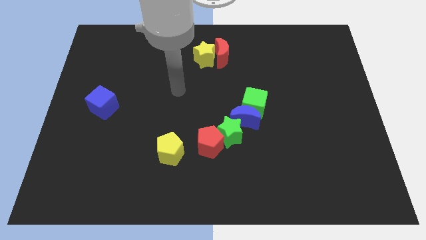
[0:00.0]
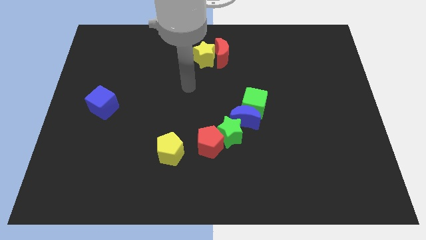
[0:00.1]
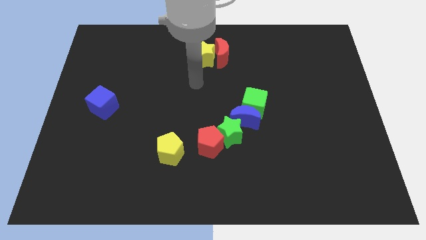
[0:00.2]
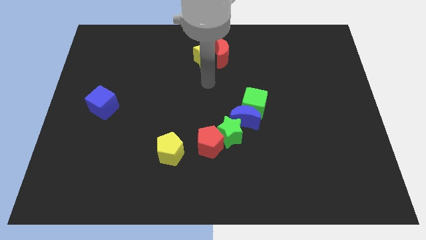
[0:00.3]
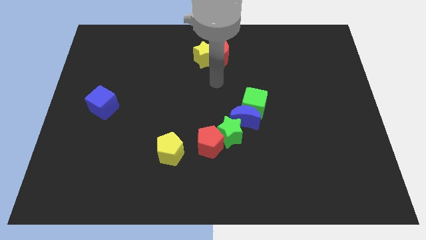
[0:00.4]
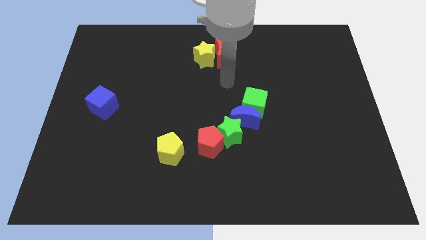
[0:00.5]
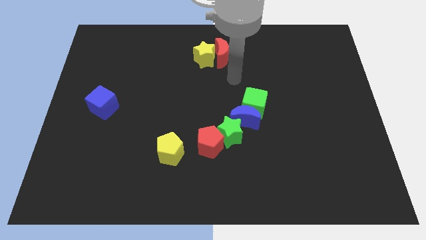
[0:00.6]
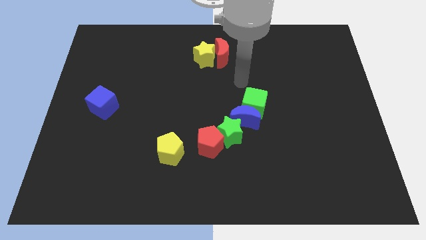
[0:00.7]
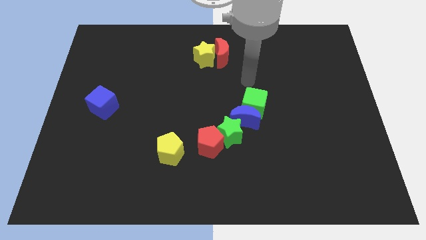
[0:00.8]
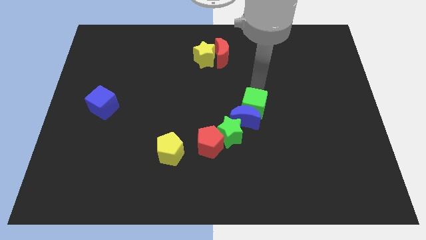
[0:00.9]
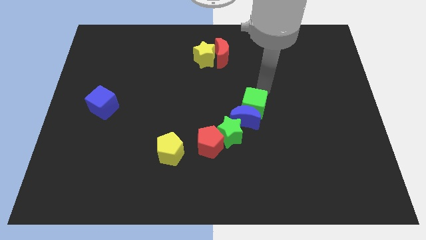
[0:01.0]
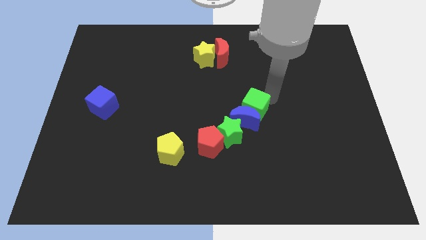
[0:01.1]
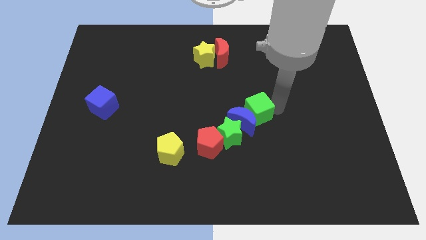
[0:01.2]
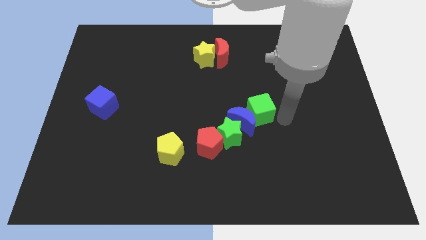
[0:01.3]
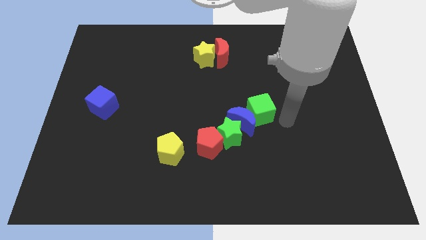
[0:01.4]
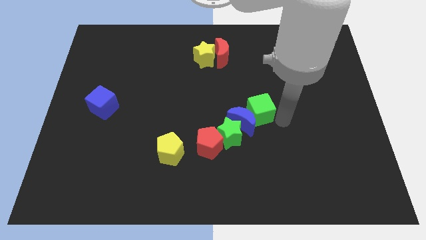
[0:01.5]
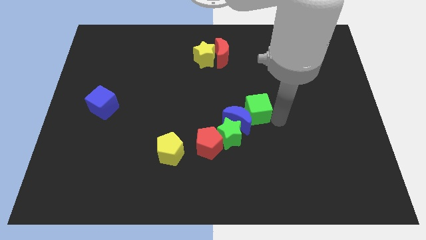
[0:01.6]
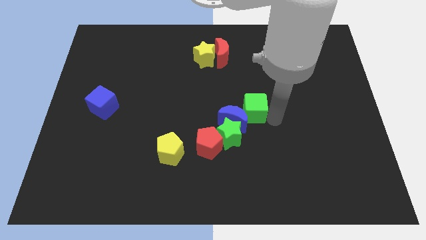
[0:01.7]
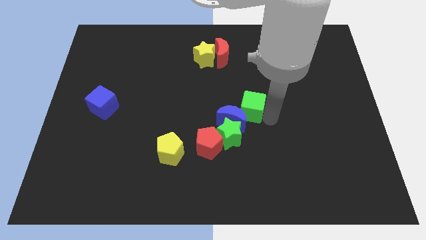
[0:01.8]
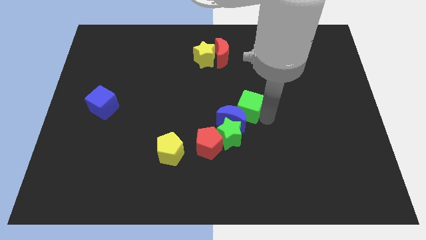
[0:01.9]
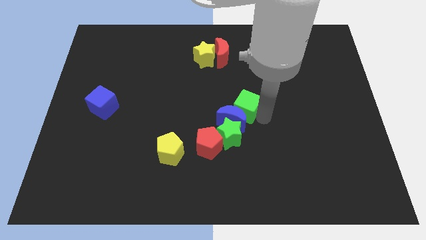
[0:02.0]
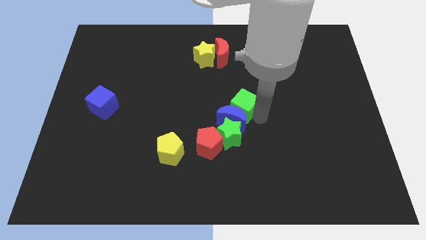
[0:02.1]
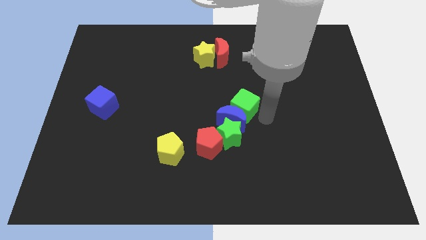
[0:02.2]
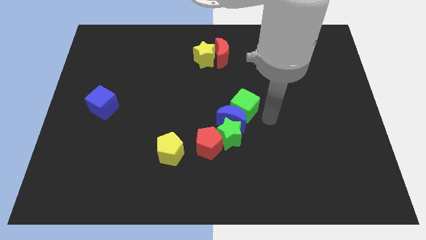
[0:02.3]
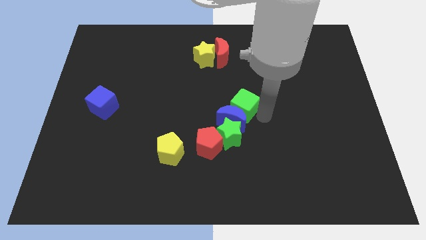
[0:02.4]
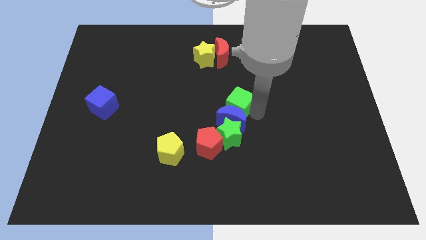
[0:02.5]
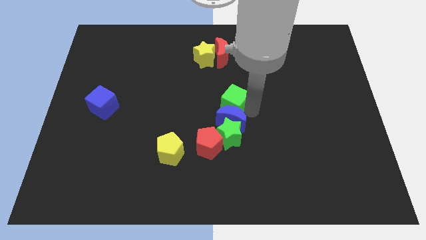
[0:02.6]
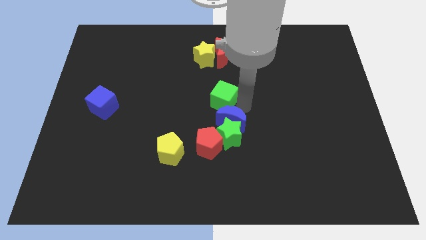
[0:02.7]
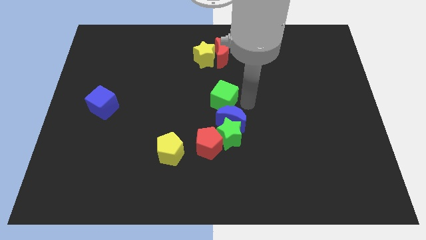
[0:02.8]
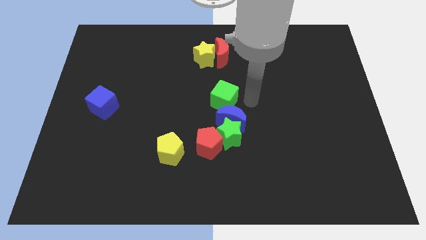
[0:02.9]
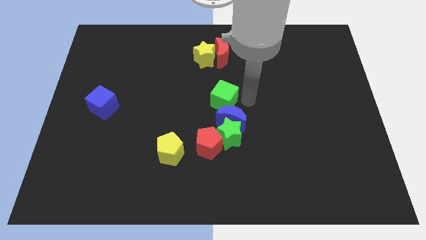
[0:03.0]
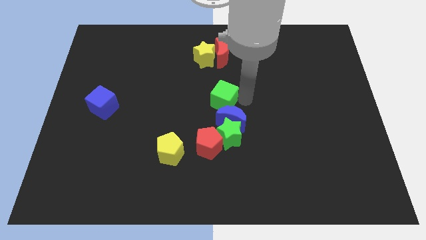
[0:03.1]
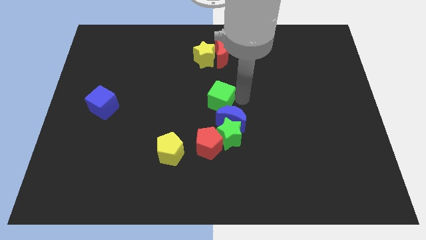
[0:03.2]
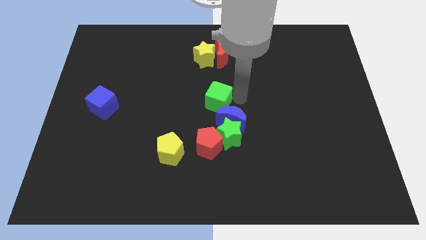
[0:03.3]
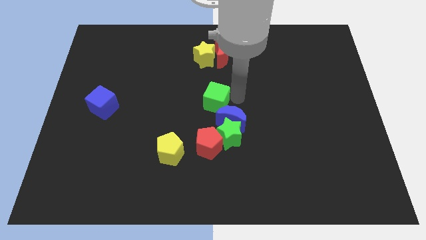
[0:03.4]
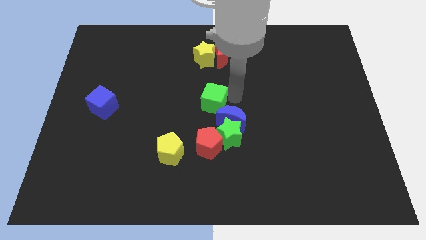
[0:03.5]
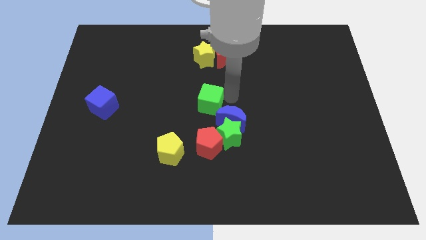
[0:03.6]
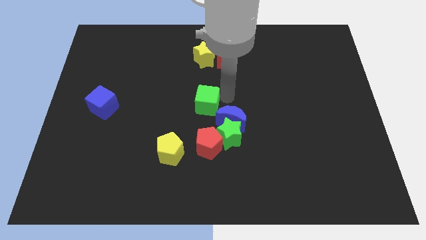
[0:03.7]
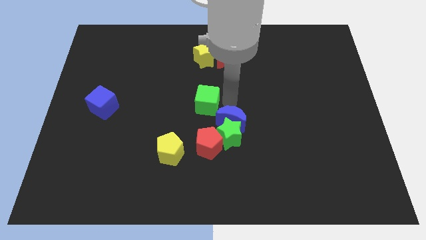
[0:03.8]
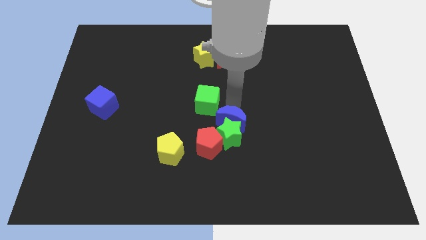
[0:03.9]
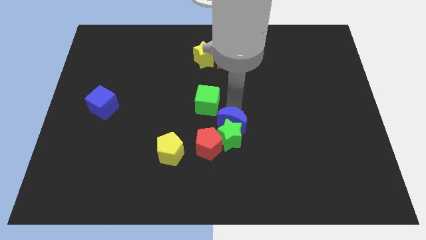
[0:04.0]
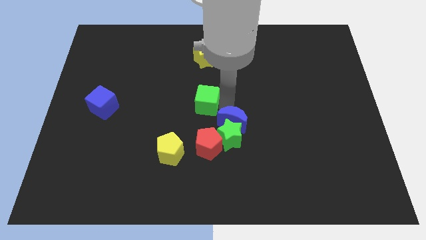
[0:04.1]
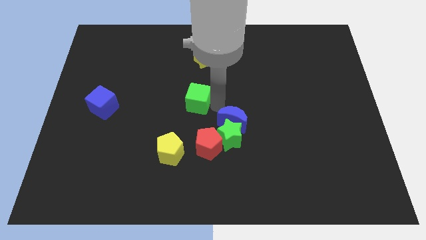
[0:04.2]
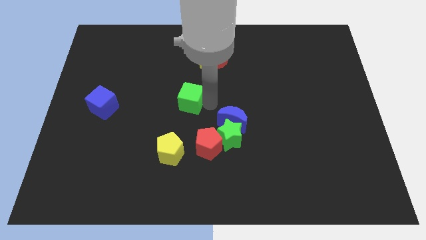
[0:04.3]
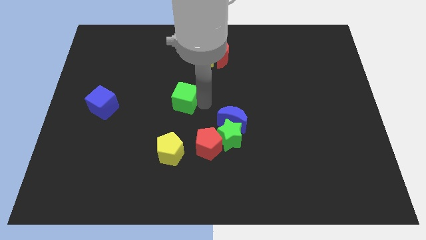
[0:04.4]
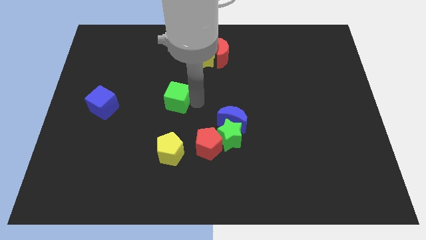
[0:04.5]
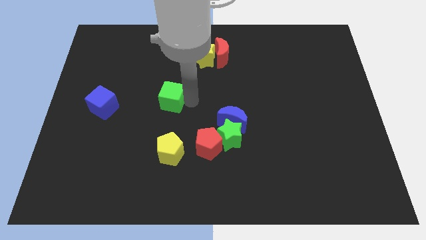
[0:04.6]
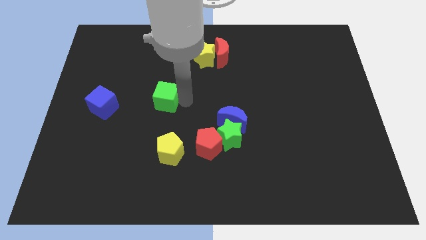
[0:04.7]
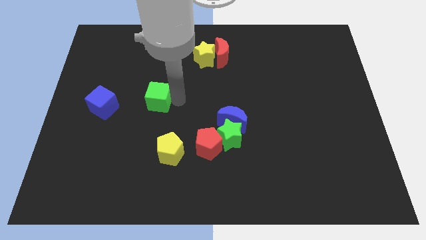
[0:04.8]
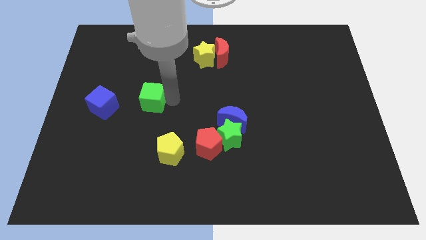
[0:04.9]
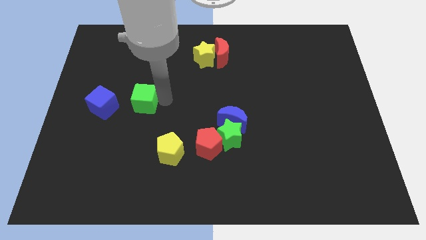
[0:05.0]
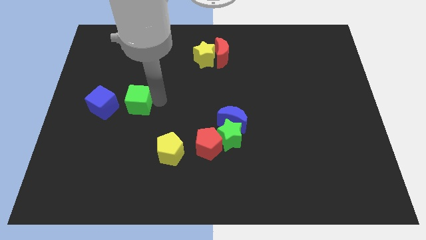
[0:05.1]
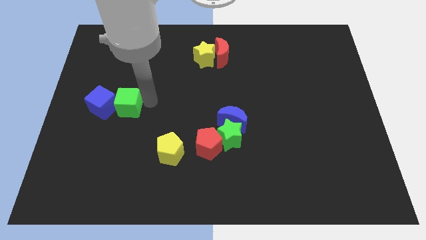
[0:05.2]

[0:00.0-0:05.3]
slide the green cube close to the blue cube

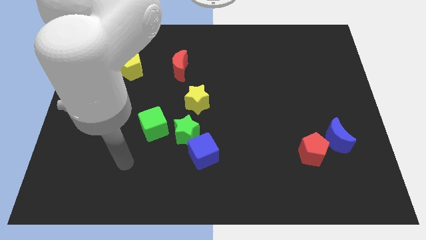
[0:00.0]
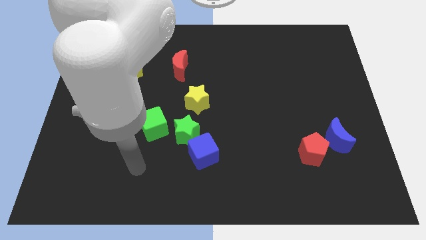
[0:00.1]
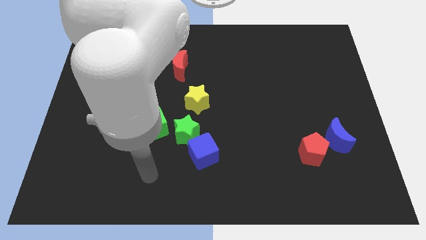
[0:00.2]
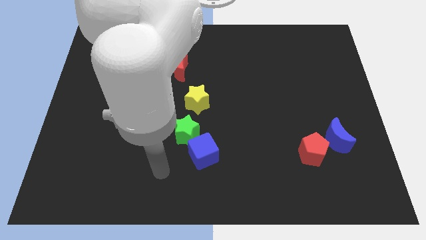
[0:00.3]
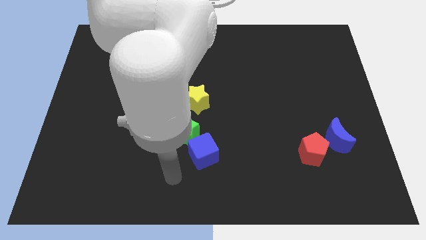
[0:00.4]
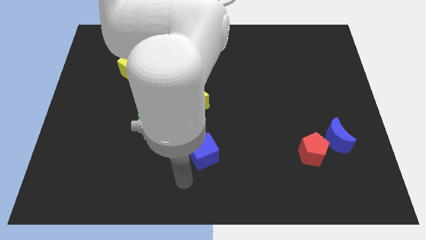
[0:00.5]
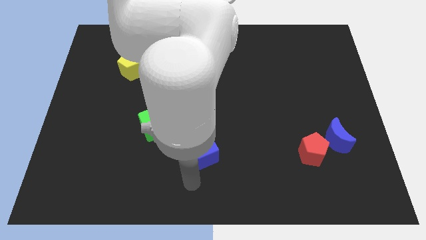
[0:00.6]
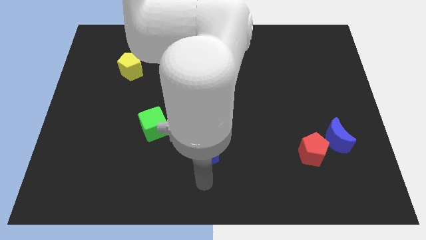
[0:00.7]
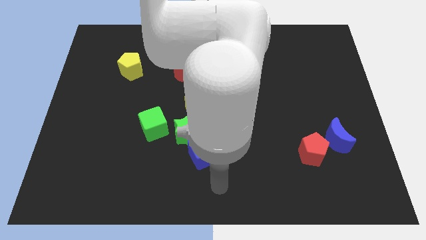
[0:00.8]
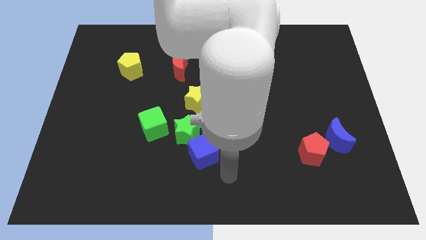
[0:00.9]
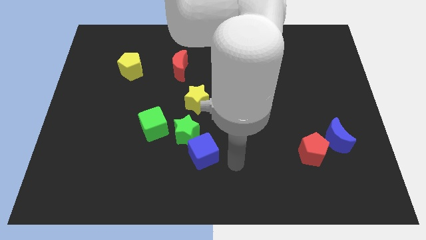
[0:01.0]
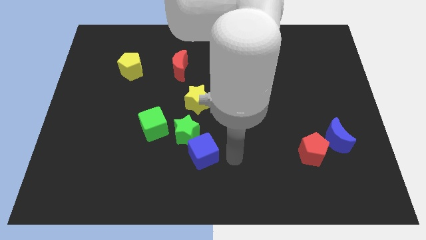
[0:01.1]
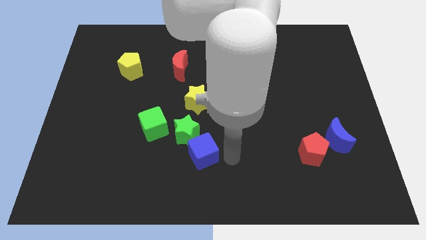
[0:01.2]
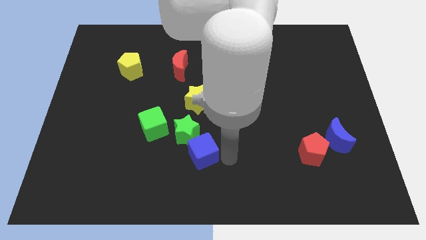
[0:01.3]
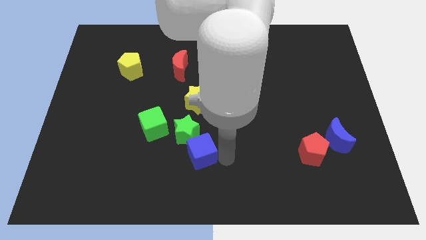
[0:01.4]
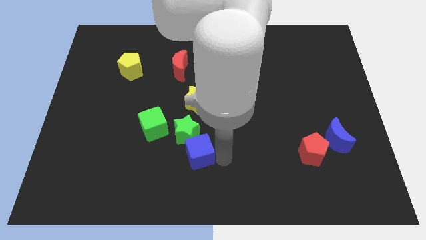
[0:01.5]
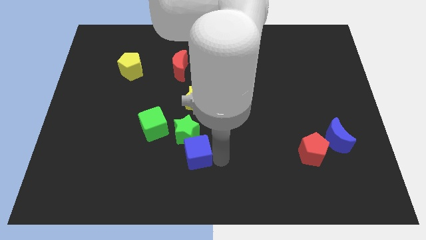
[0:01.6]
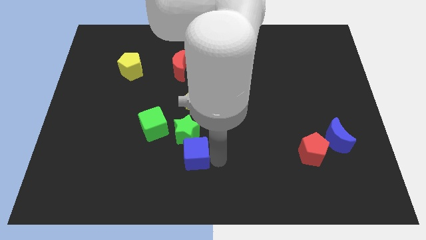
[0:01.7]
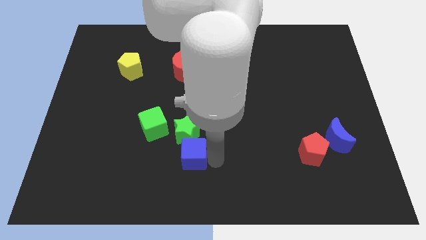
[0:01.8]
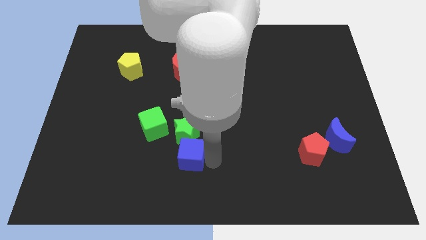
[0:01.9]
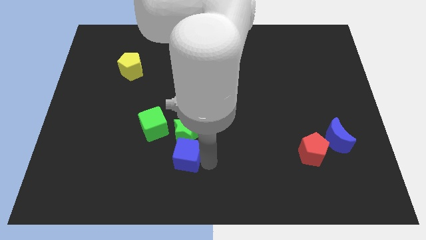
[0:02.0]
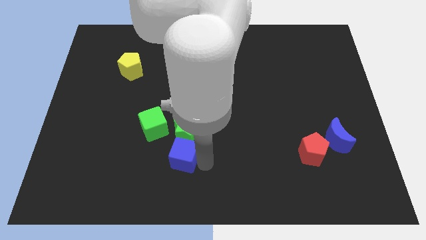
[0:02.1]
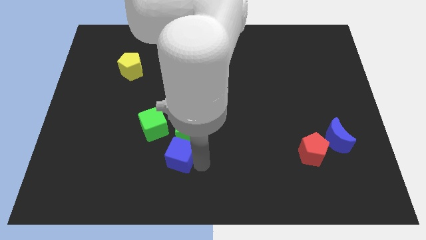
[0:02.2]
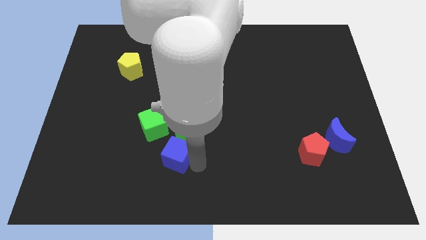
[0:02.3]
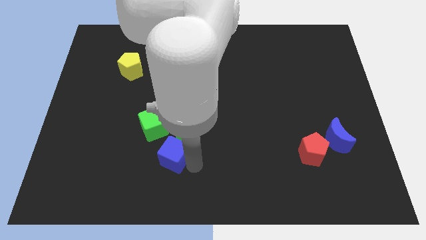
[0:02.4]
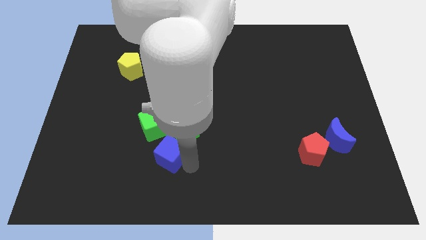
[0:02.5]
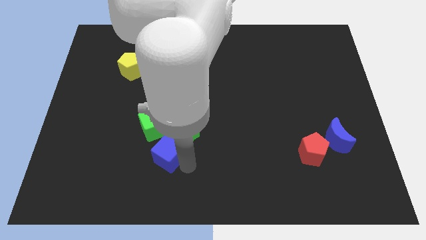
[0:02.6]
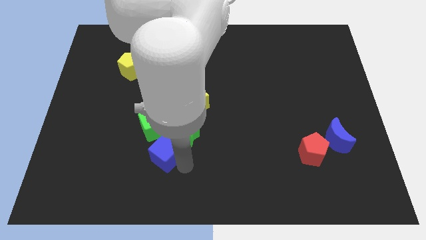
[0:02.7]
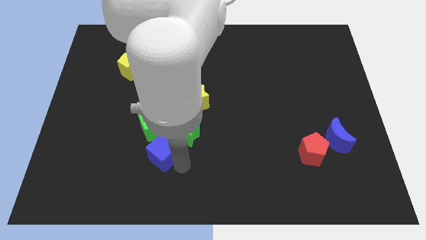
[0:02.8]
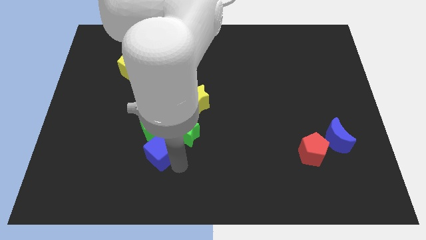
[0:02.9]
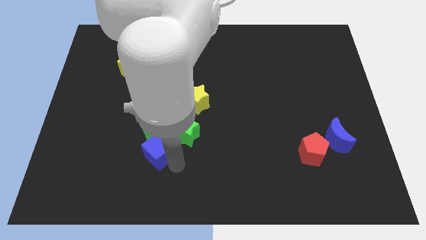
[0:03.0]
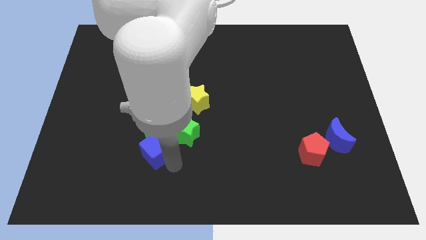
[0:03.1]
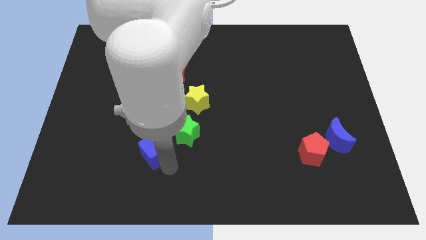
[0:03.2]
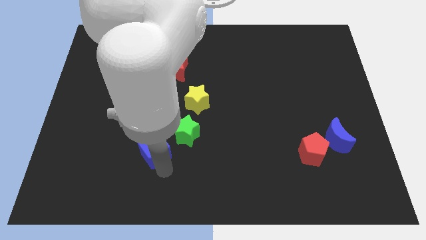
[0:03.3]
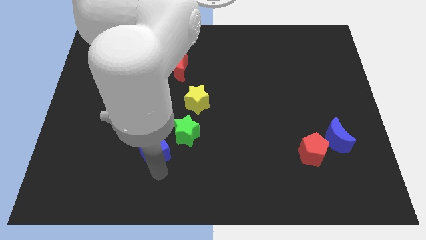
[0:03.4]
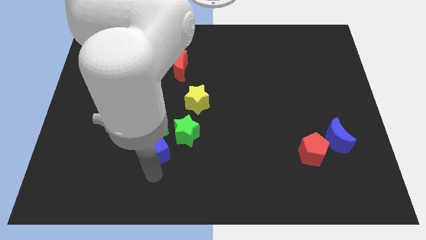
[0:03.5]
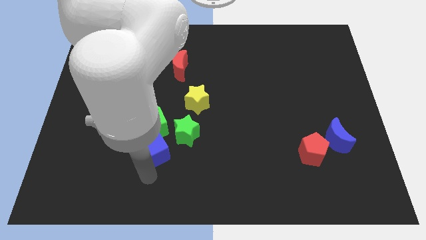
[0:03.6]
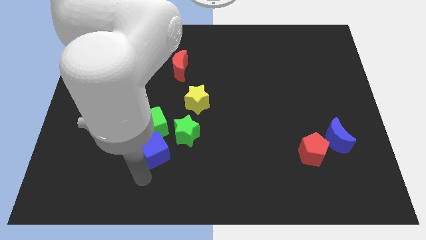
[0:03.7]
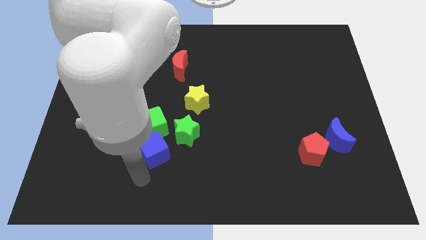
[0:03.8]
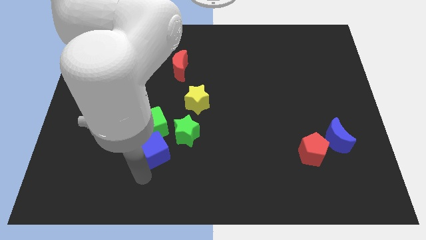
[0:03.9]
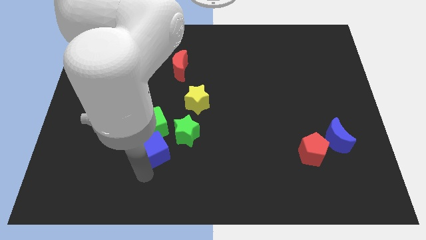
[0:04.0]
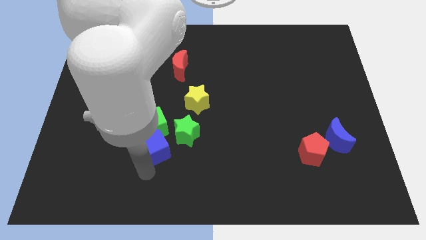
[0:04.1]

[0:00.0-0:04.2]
put the blue cube next to the green cube
